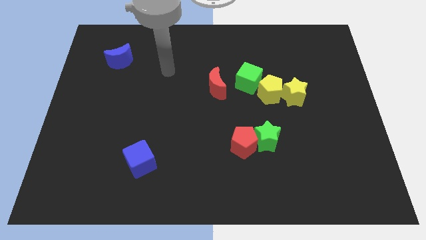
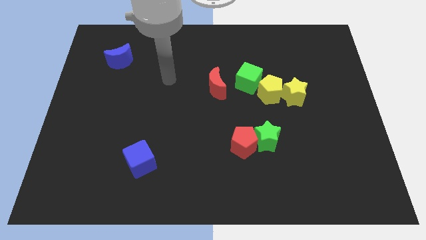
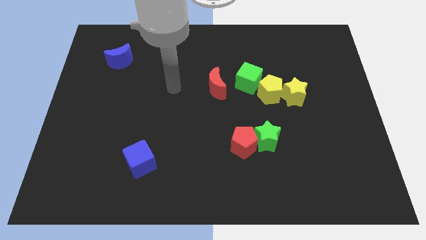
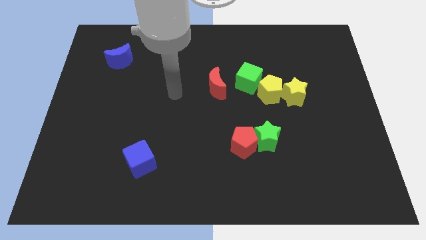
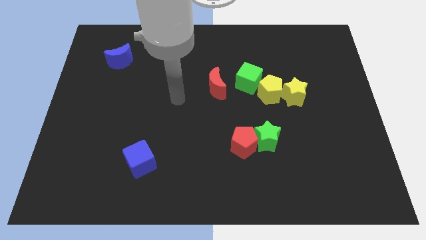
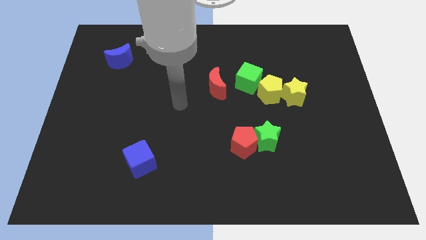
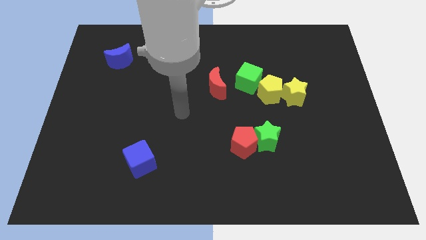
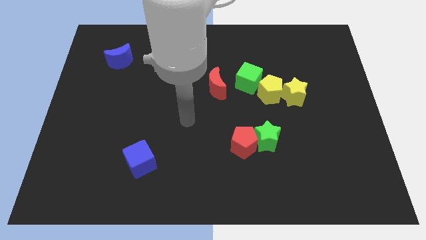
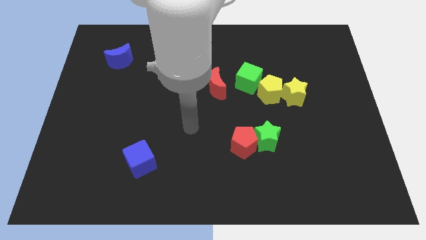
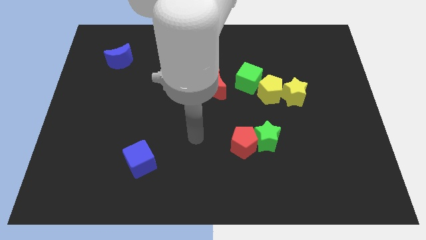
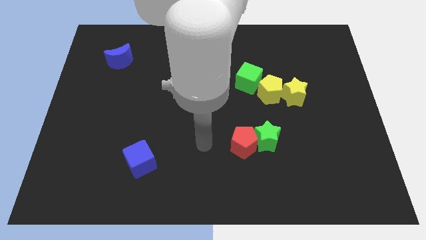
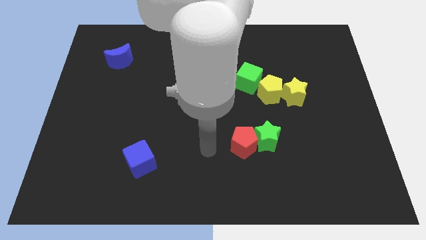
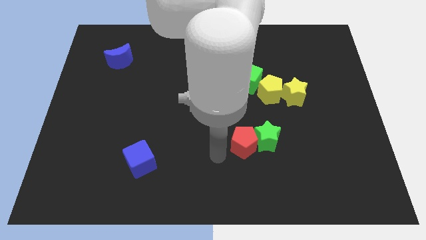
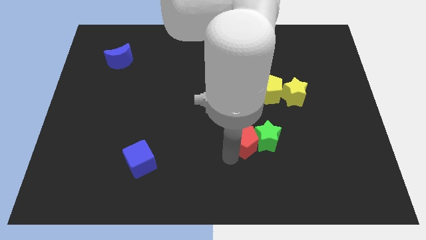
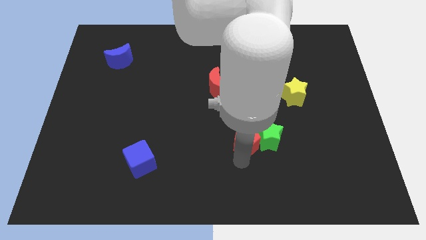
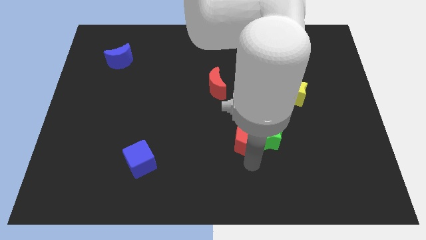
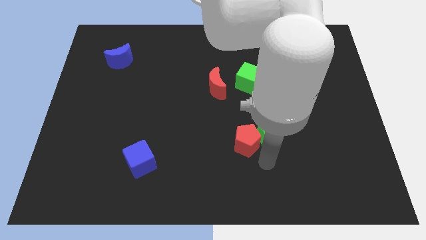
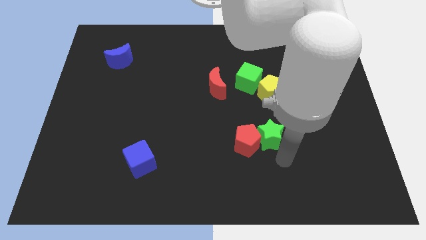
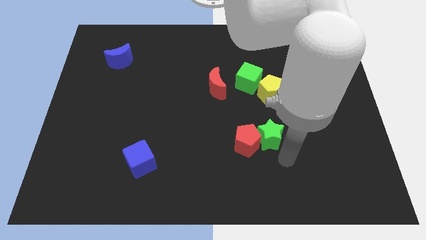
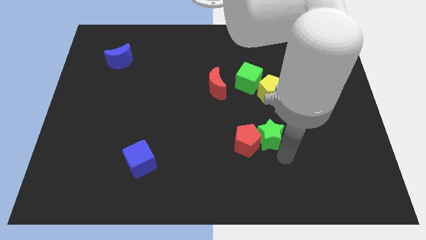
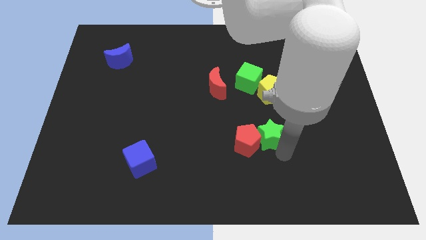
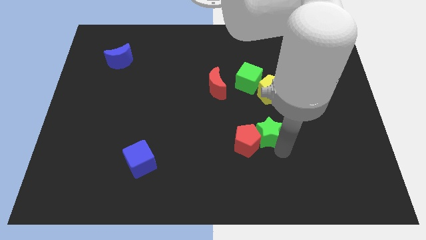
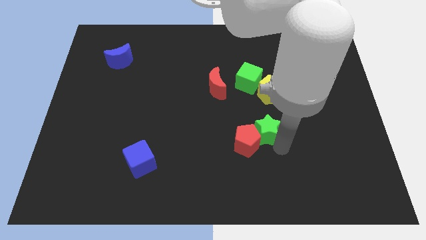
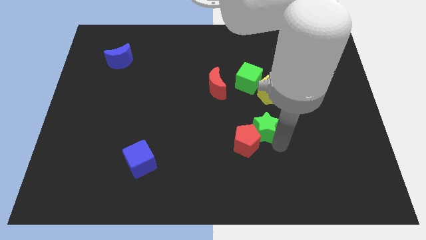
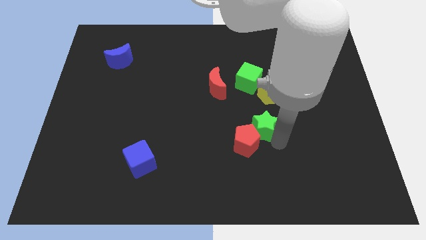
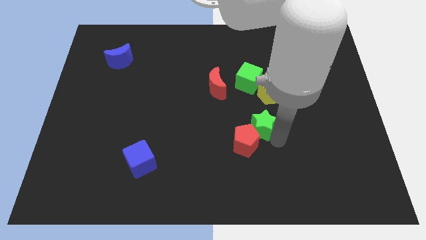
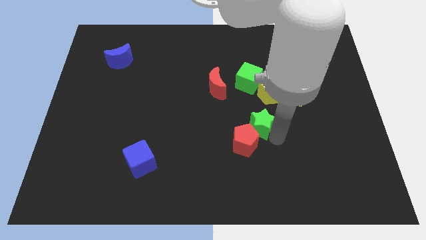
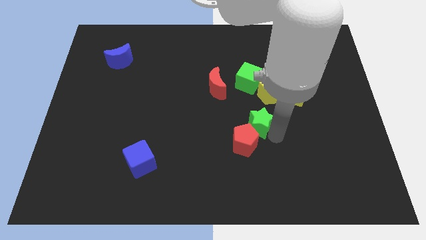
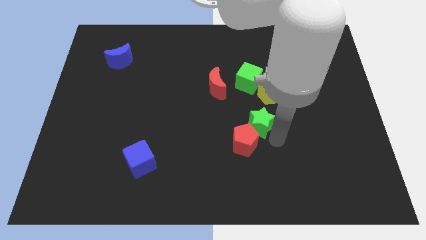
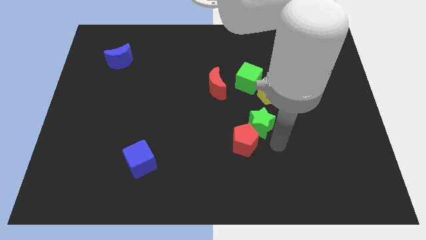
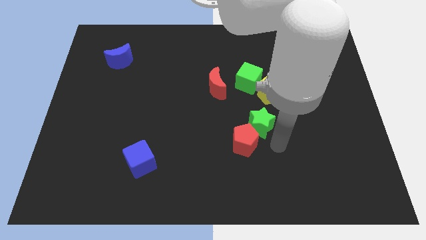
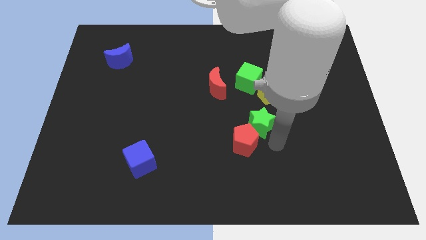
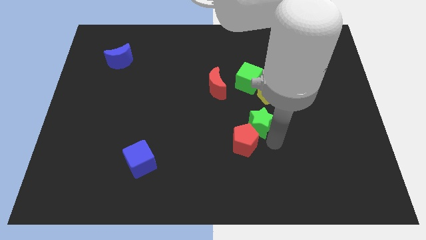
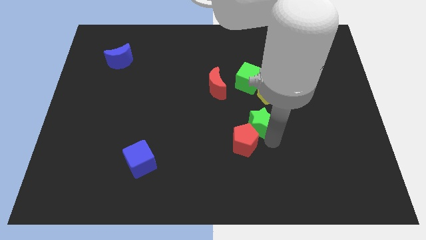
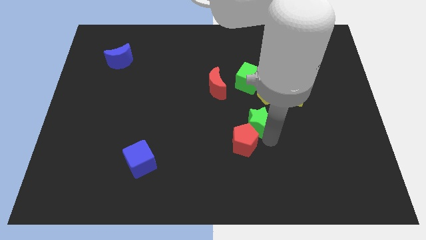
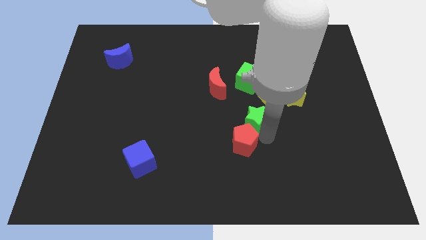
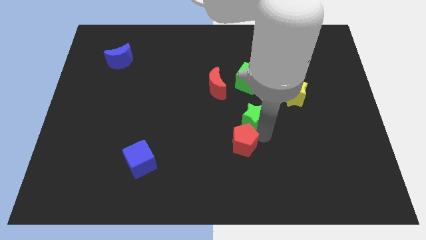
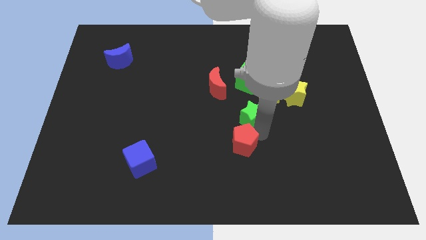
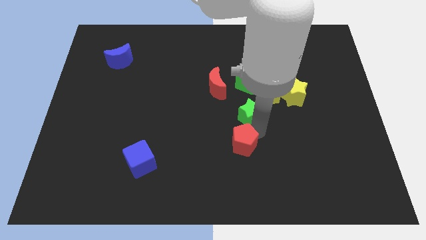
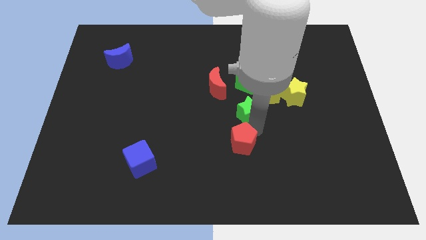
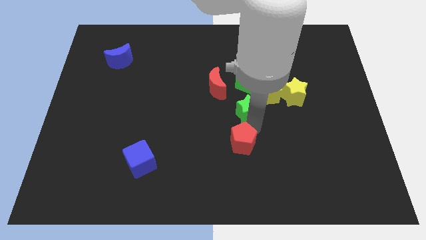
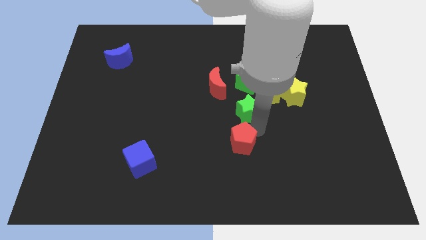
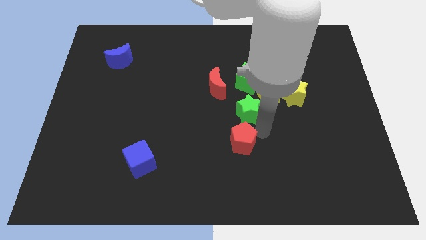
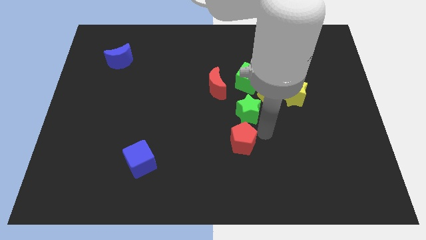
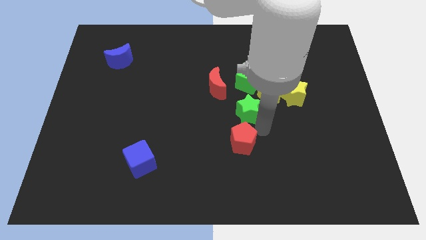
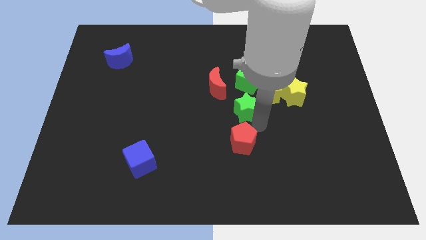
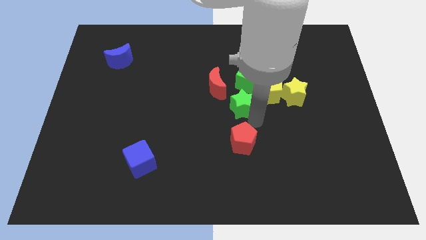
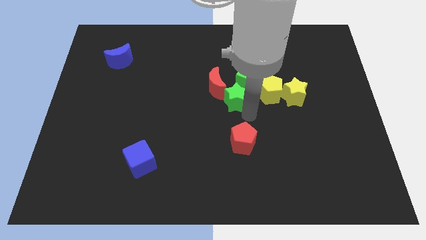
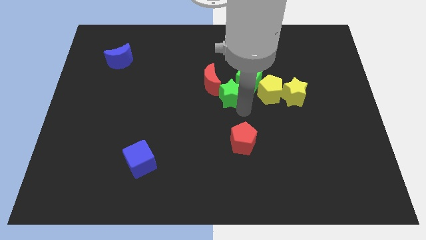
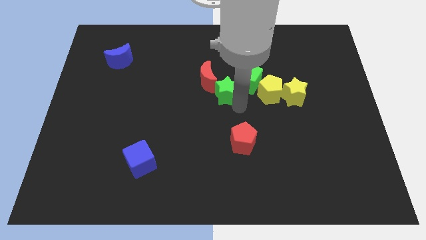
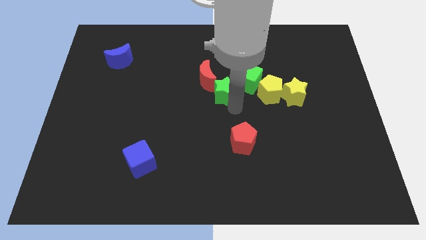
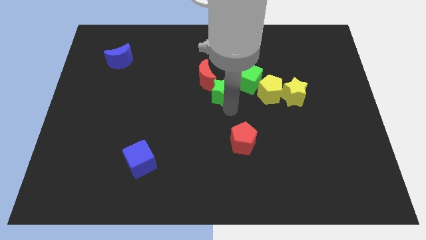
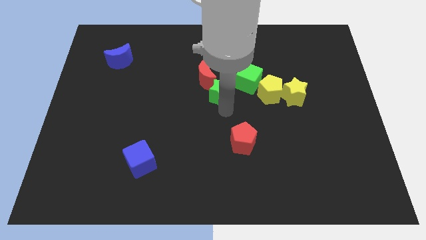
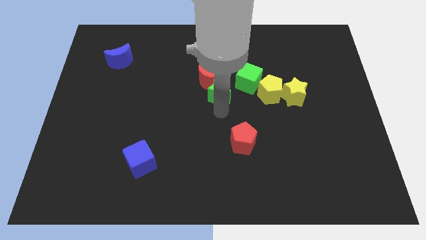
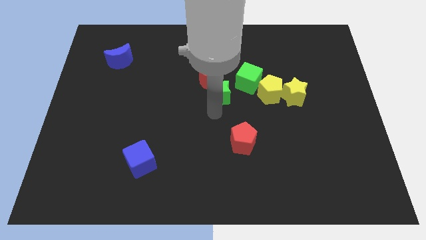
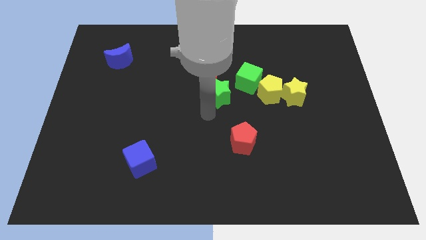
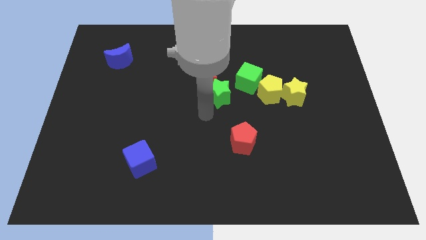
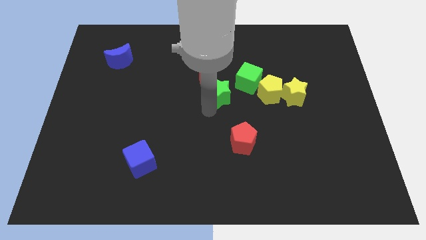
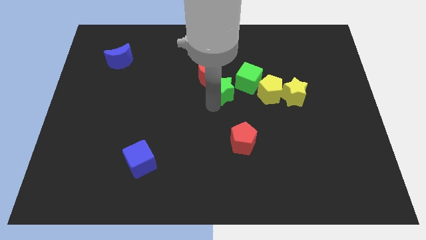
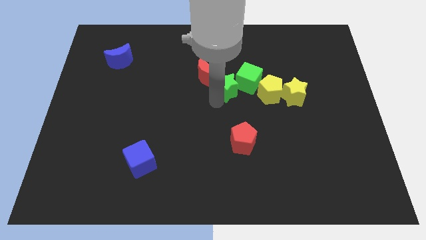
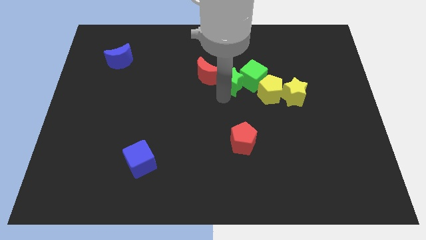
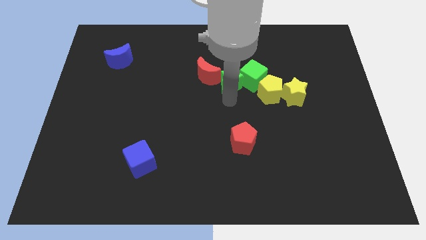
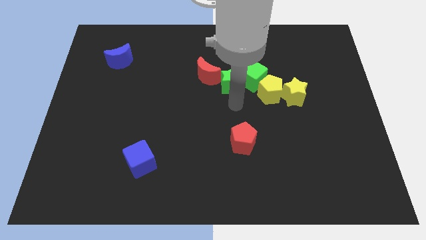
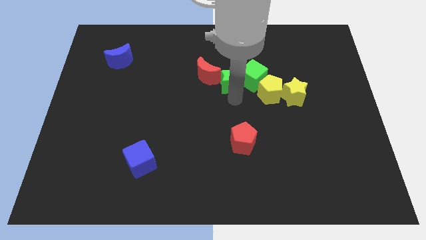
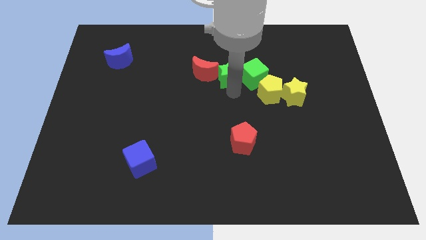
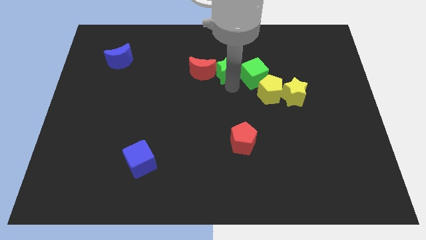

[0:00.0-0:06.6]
move the green star to the top right of the red moon
